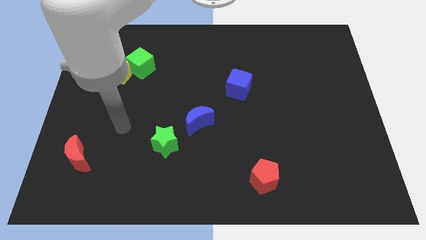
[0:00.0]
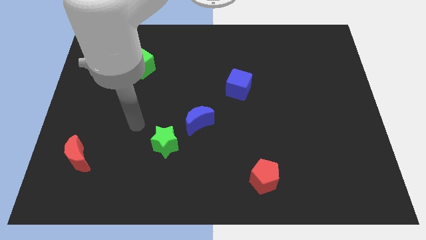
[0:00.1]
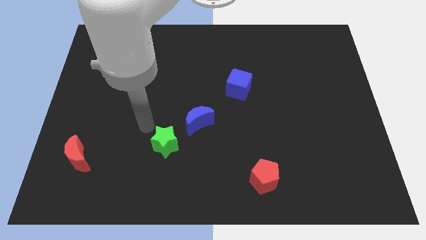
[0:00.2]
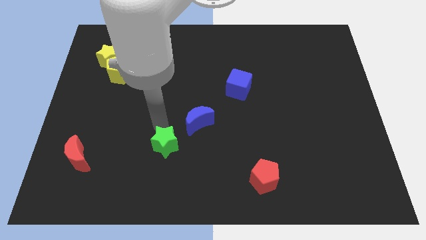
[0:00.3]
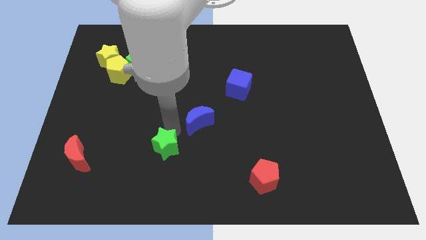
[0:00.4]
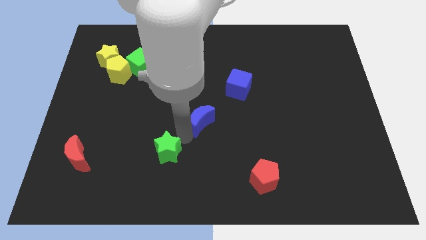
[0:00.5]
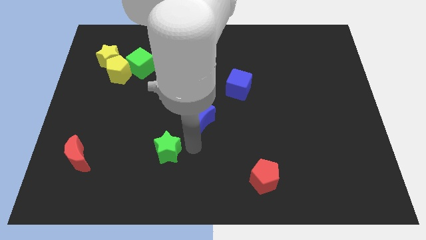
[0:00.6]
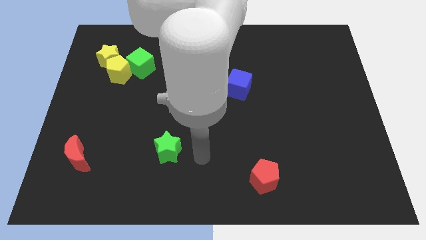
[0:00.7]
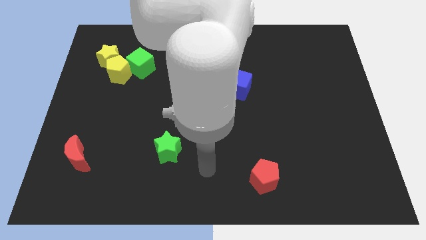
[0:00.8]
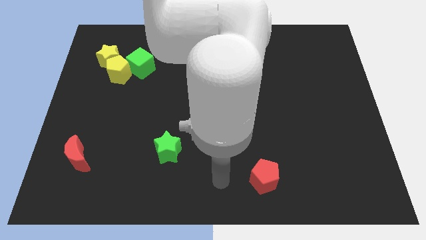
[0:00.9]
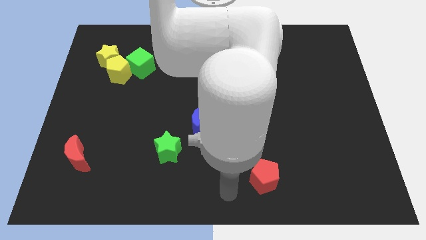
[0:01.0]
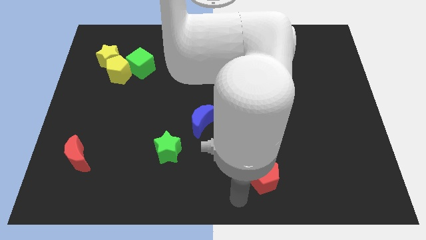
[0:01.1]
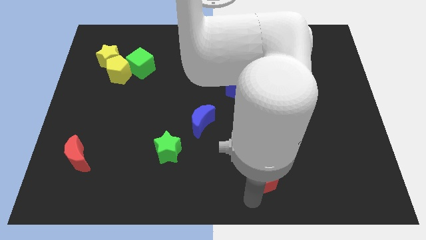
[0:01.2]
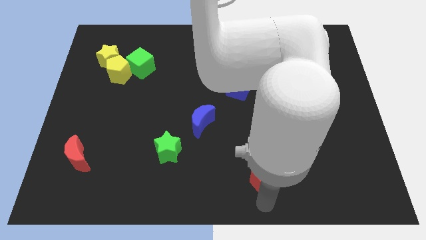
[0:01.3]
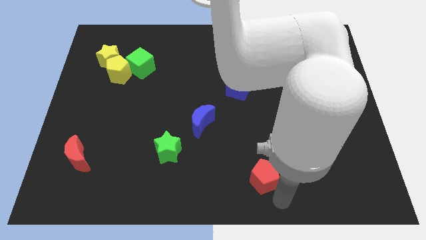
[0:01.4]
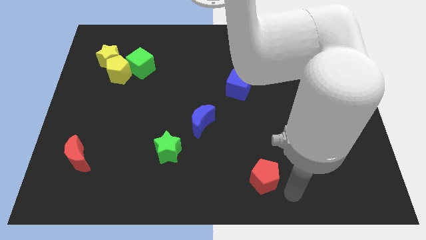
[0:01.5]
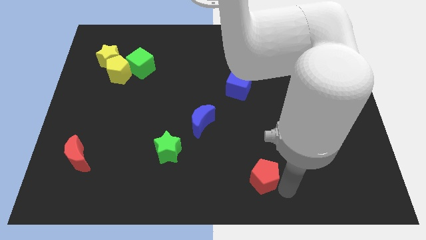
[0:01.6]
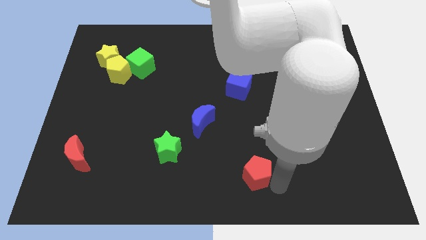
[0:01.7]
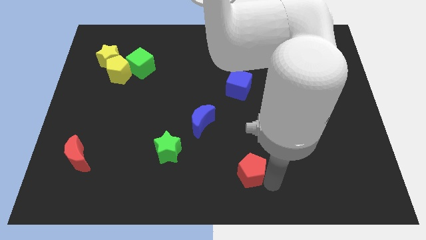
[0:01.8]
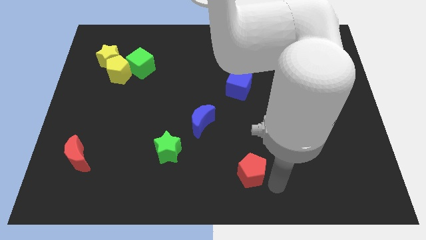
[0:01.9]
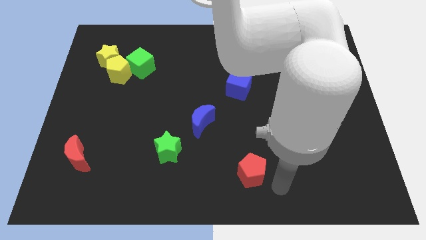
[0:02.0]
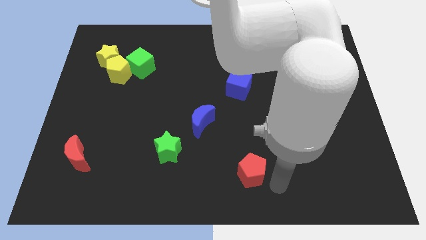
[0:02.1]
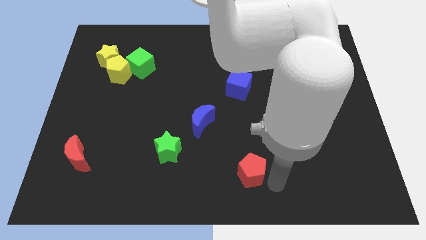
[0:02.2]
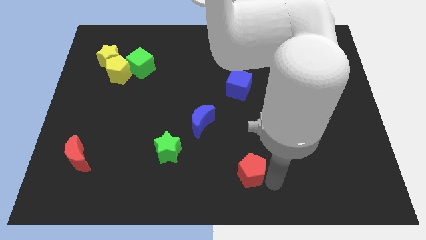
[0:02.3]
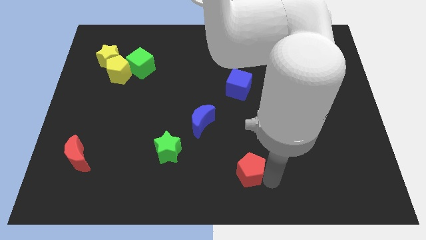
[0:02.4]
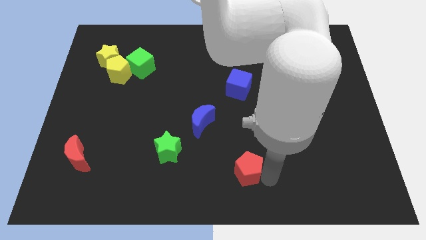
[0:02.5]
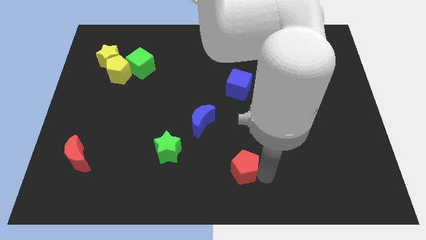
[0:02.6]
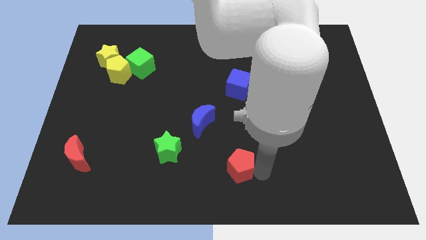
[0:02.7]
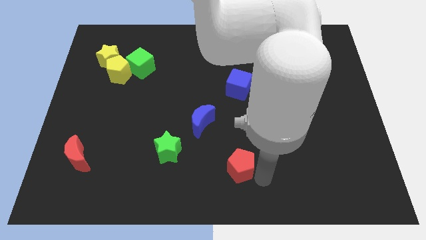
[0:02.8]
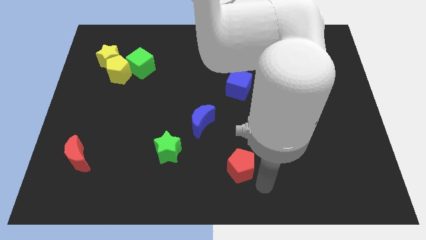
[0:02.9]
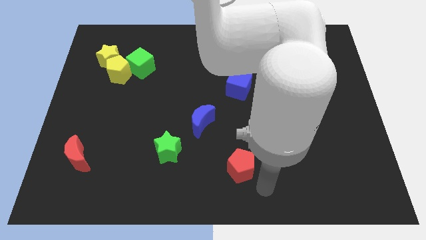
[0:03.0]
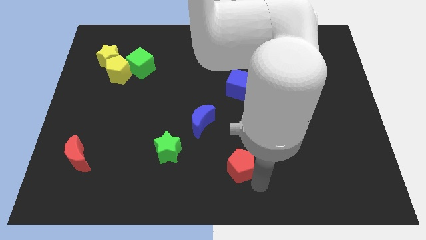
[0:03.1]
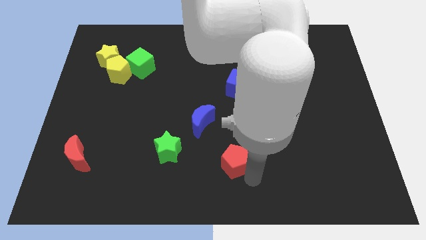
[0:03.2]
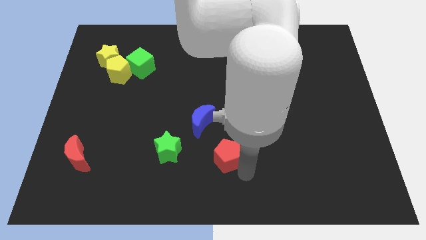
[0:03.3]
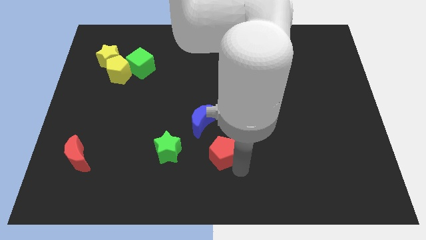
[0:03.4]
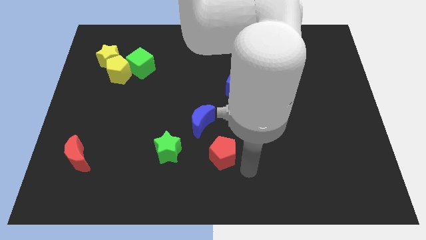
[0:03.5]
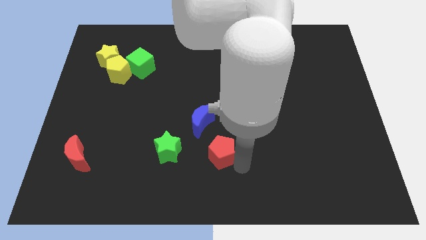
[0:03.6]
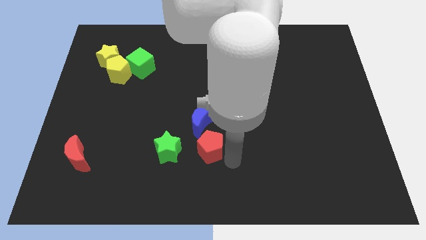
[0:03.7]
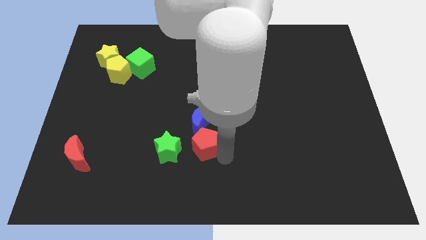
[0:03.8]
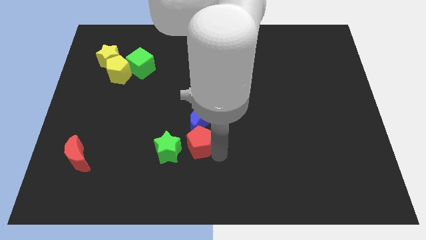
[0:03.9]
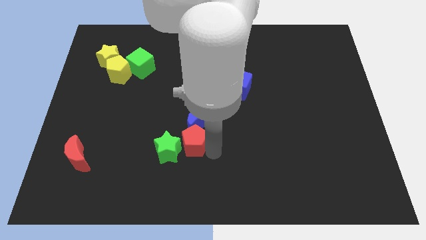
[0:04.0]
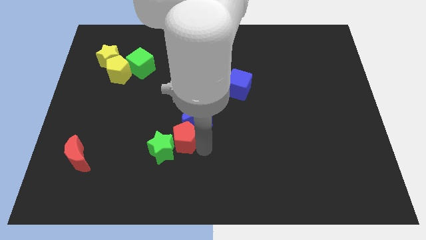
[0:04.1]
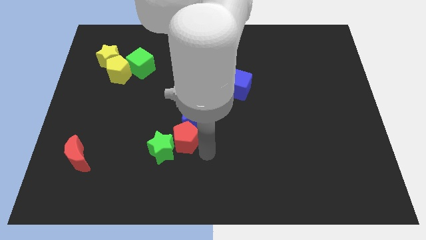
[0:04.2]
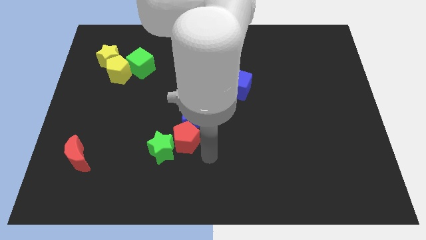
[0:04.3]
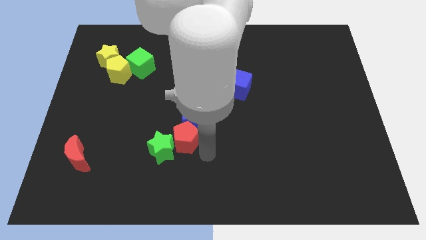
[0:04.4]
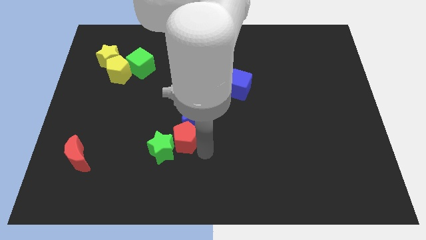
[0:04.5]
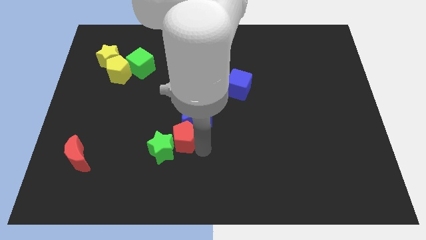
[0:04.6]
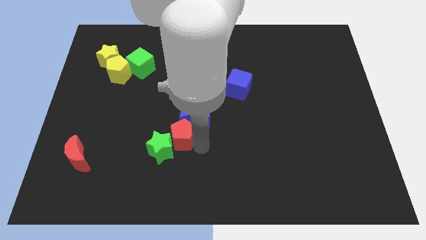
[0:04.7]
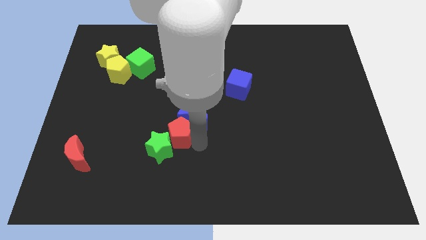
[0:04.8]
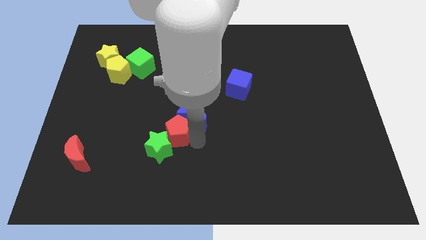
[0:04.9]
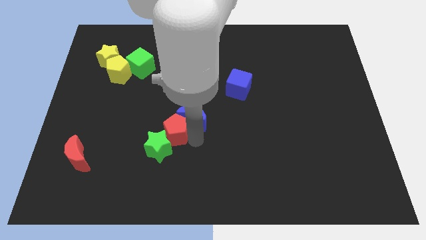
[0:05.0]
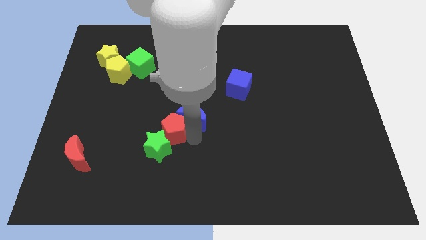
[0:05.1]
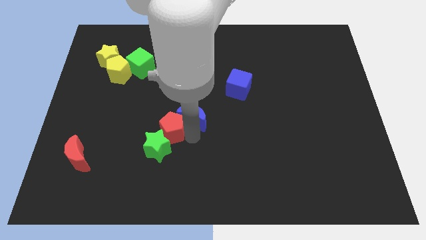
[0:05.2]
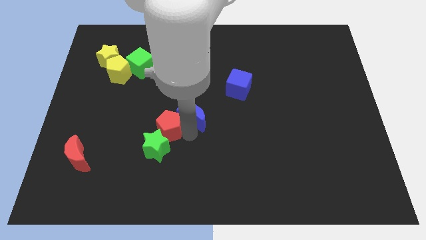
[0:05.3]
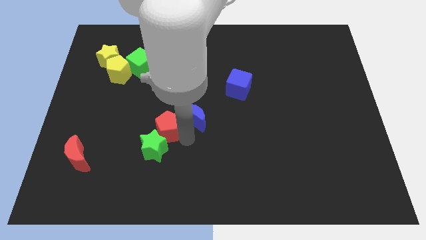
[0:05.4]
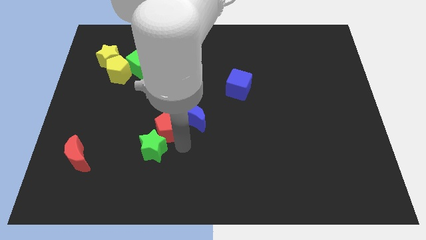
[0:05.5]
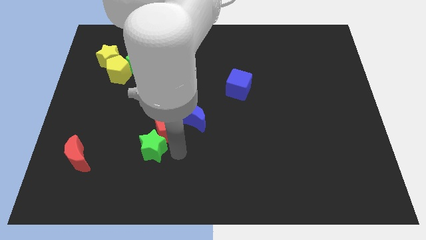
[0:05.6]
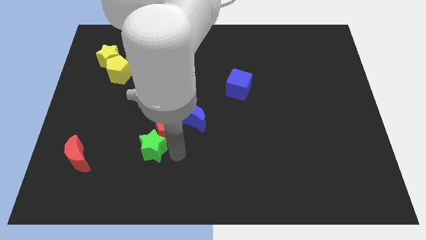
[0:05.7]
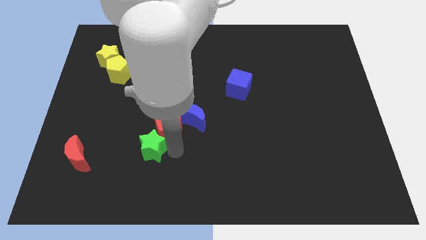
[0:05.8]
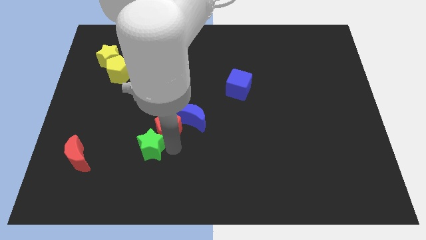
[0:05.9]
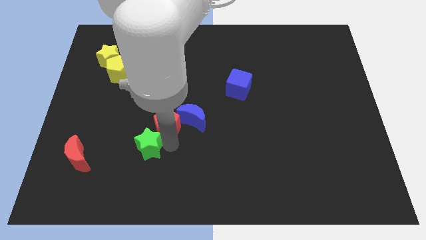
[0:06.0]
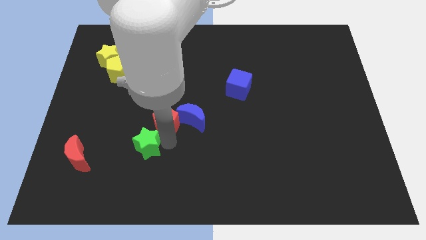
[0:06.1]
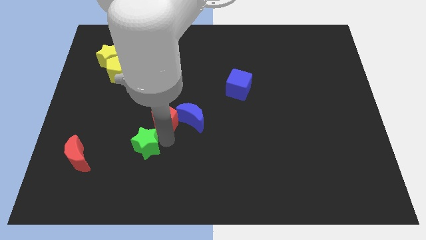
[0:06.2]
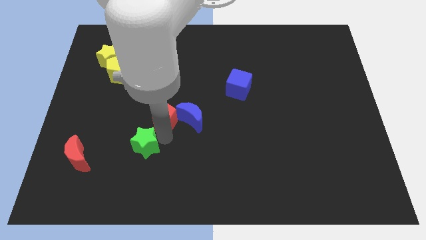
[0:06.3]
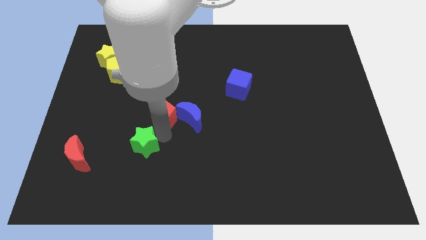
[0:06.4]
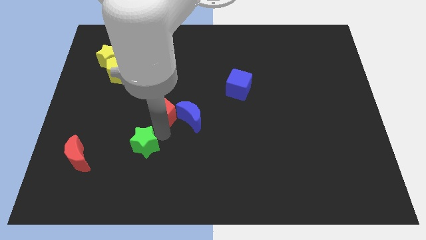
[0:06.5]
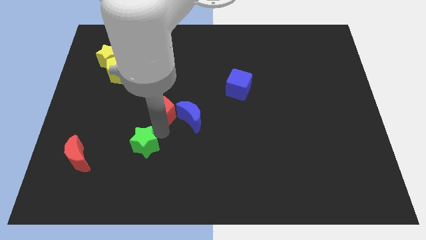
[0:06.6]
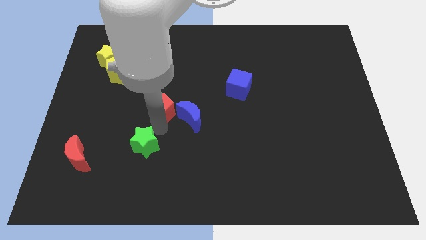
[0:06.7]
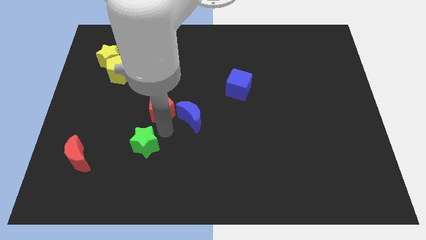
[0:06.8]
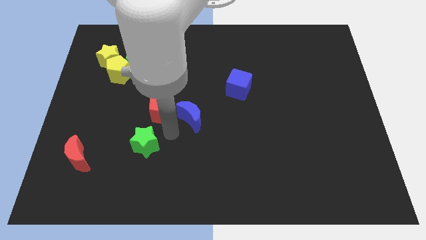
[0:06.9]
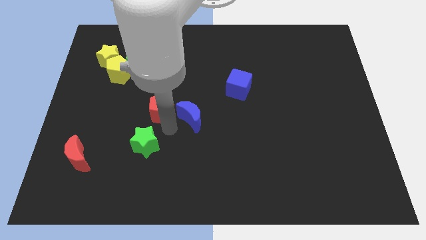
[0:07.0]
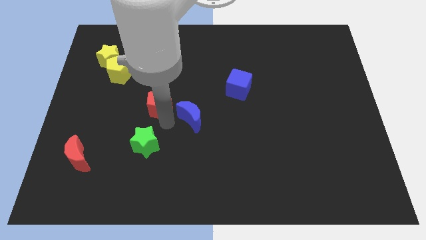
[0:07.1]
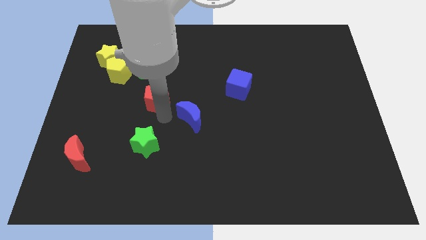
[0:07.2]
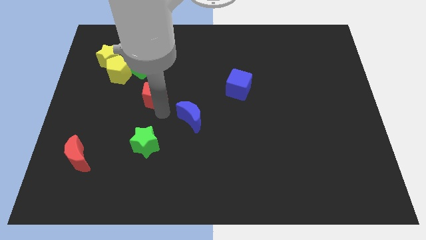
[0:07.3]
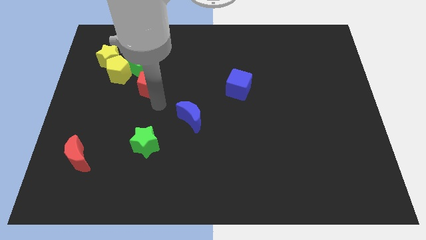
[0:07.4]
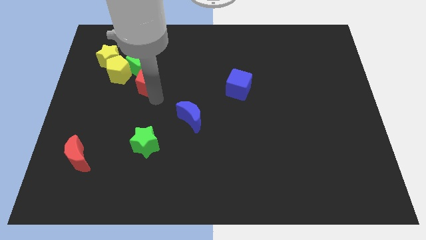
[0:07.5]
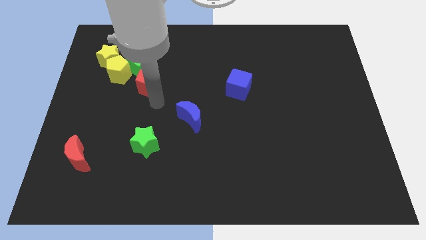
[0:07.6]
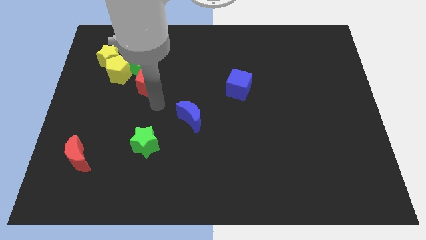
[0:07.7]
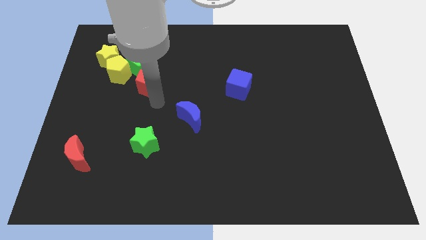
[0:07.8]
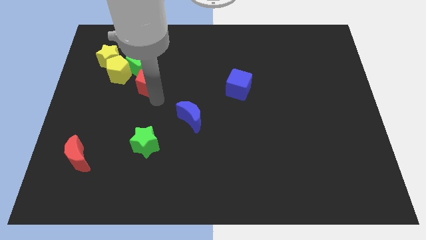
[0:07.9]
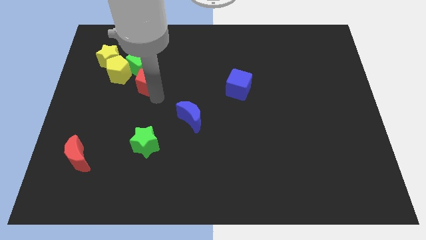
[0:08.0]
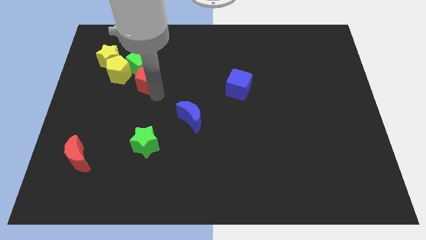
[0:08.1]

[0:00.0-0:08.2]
put the red pentagon next to the green cube
